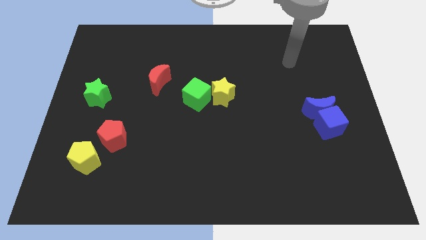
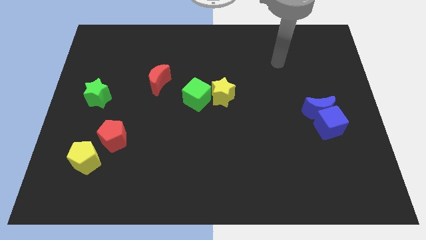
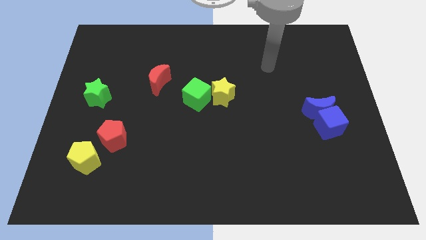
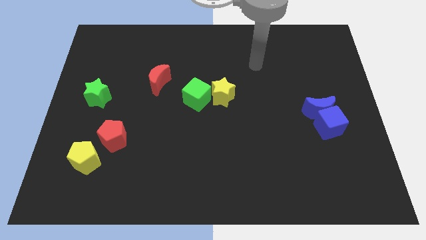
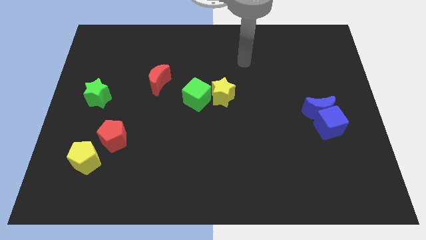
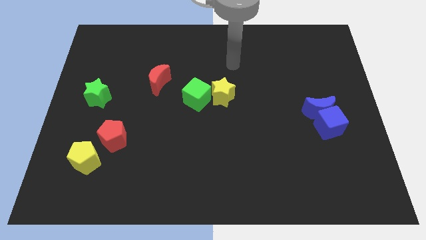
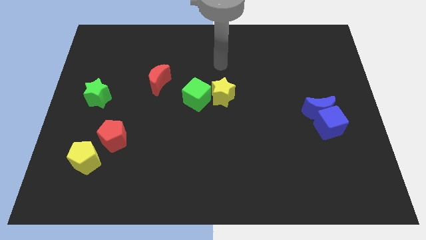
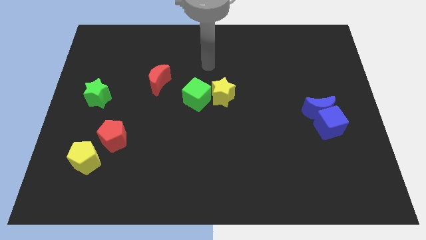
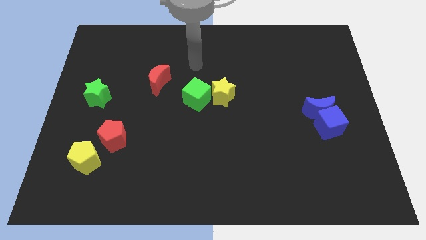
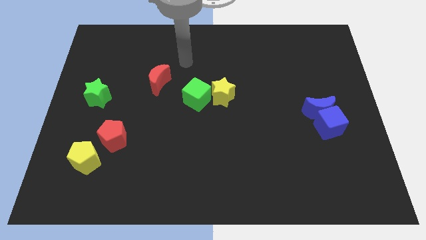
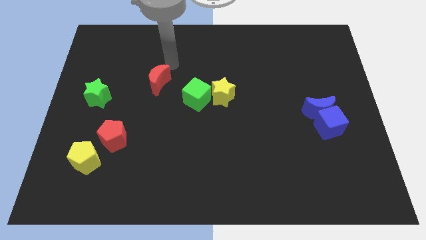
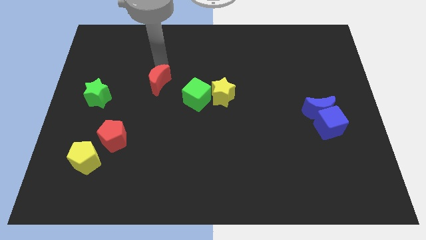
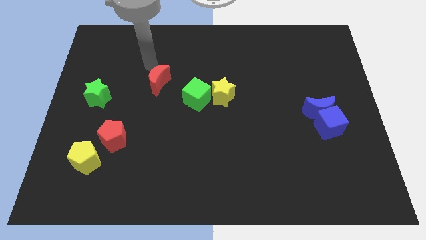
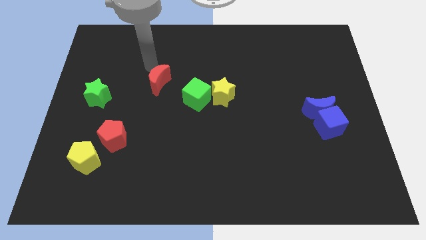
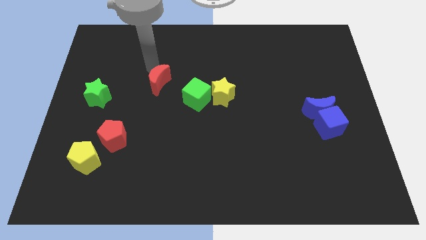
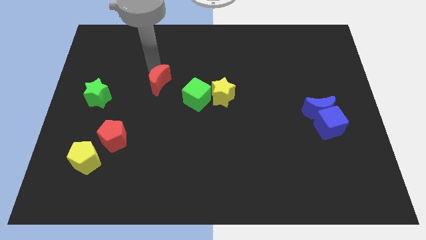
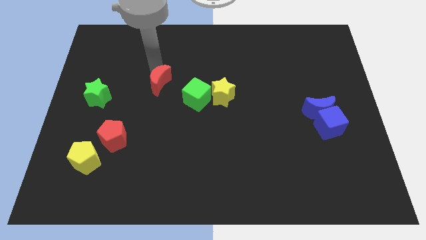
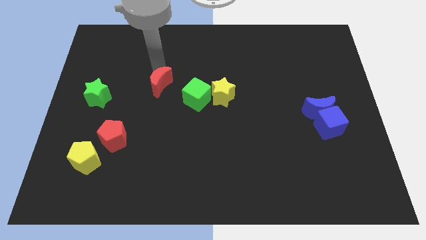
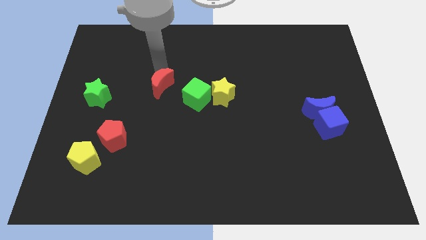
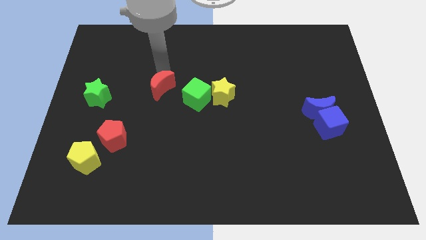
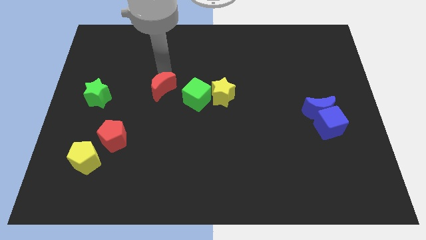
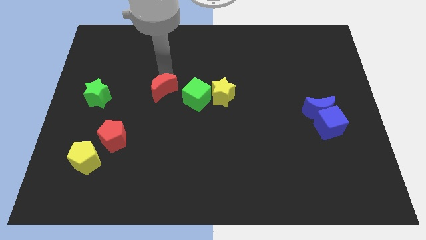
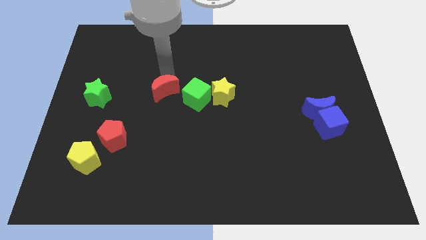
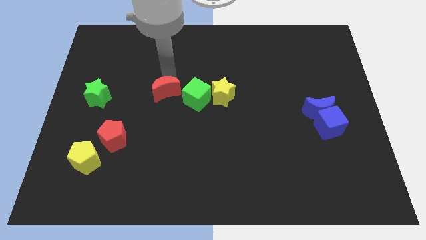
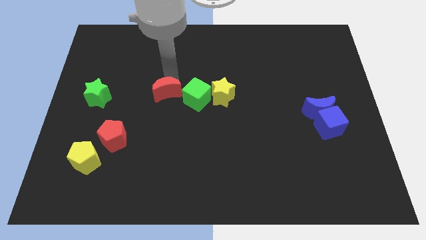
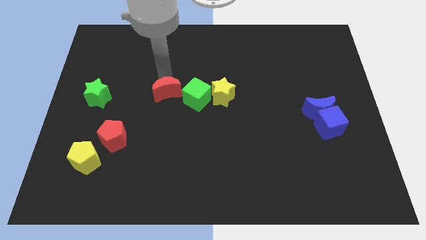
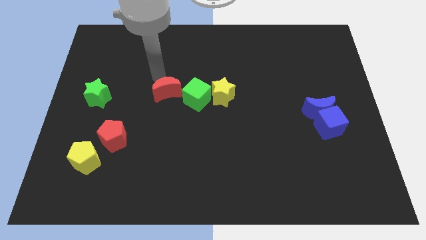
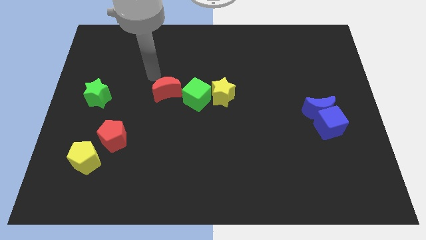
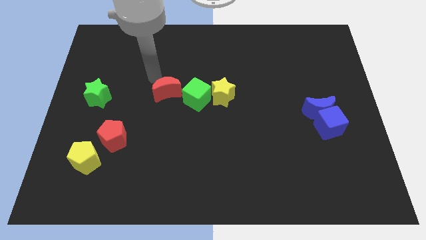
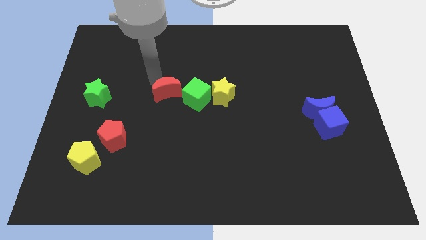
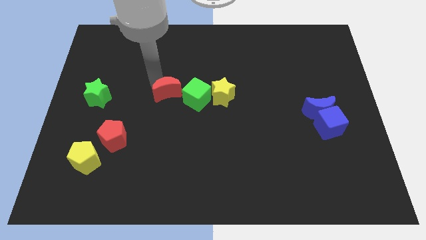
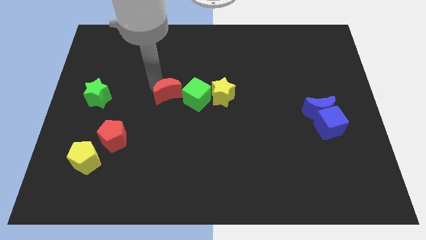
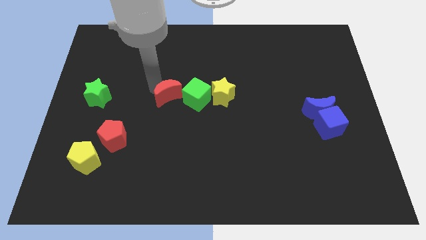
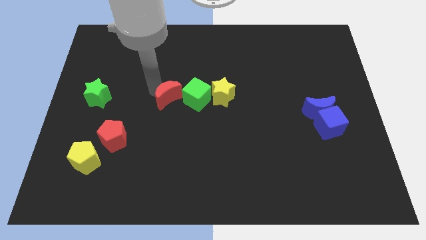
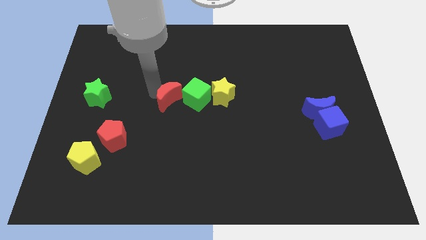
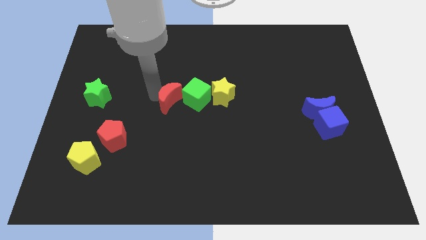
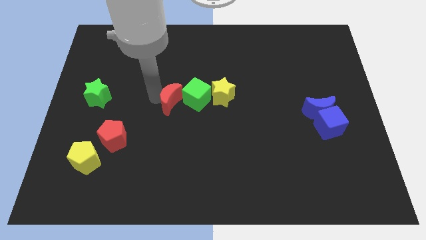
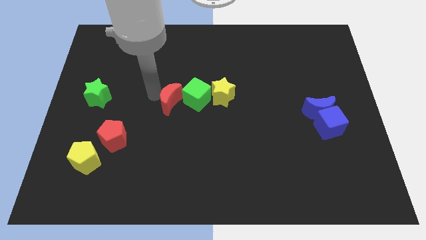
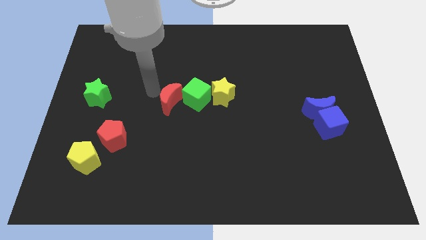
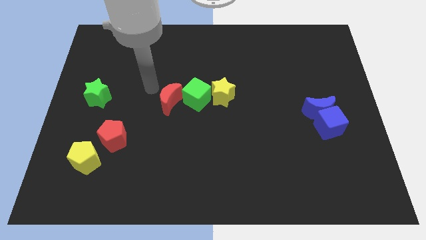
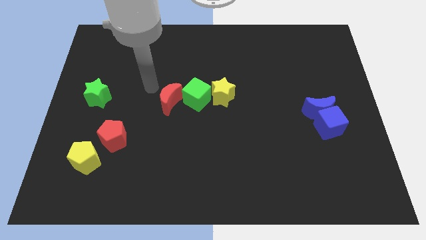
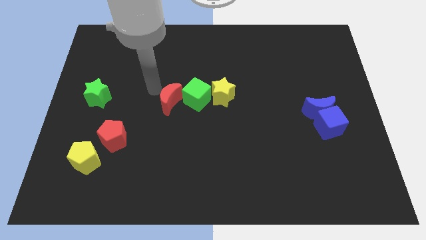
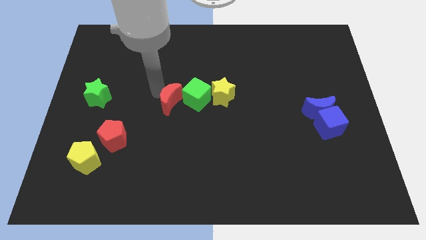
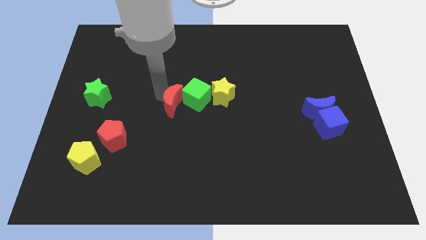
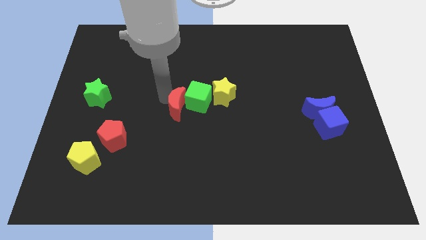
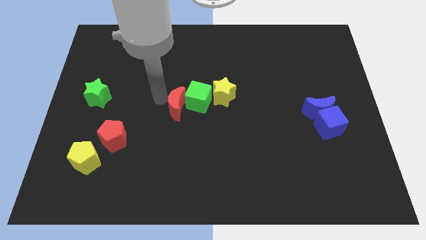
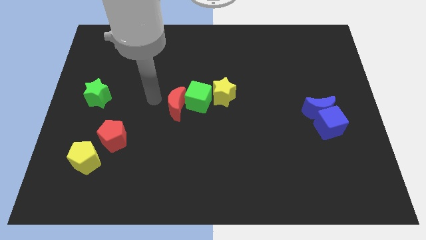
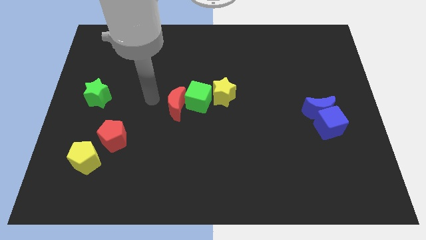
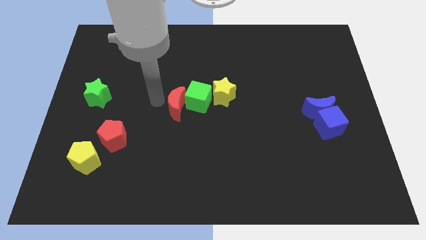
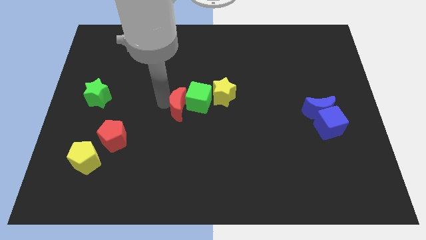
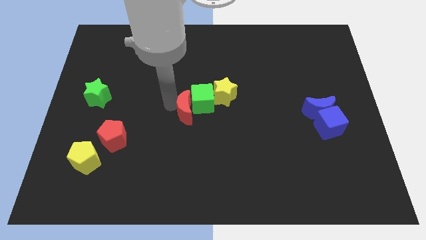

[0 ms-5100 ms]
push the red moon to the bottom left of the yellow star

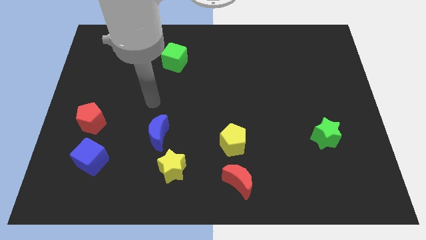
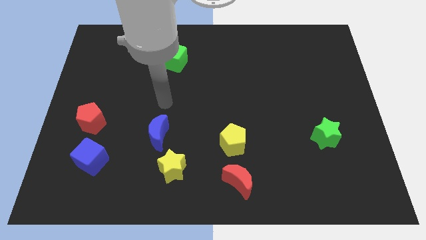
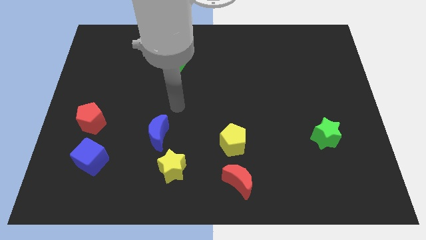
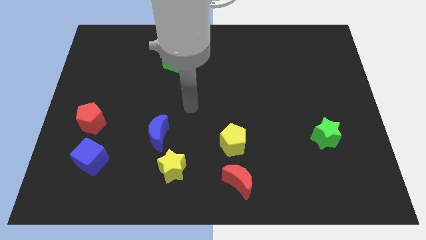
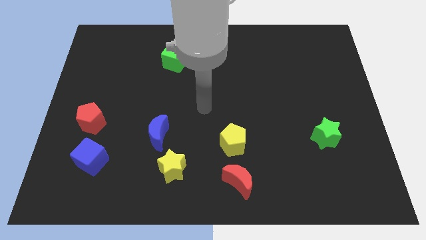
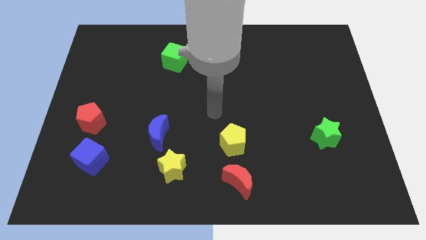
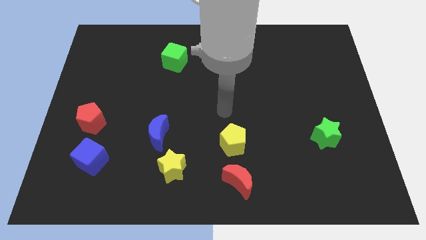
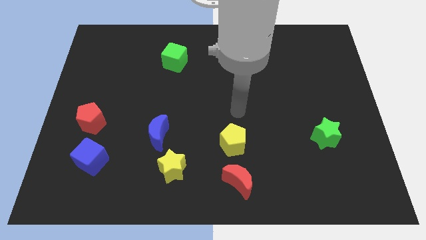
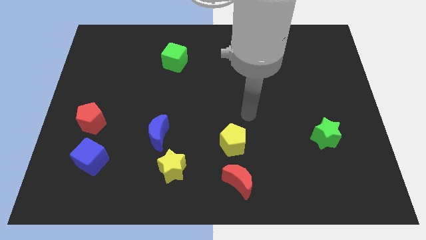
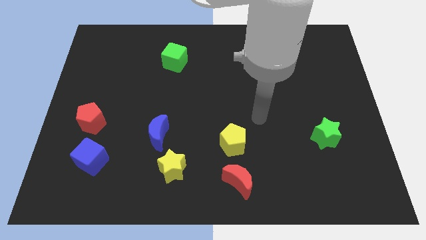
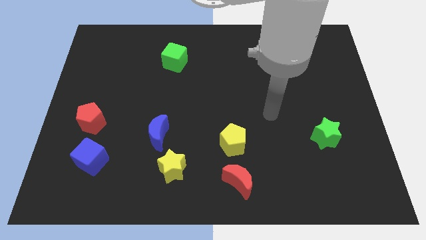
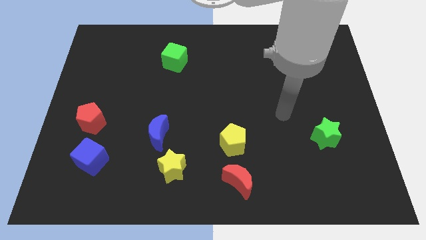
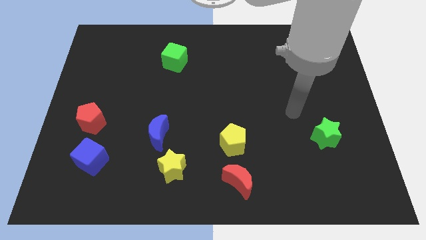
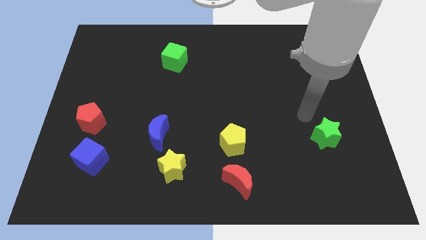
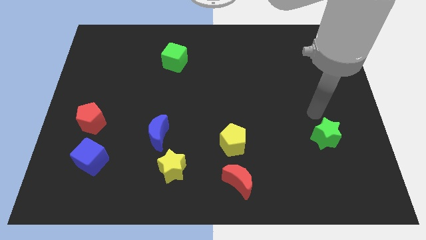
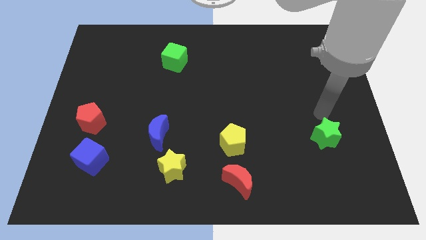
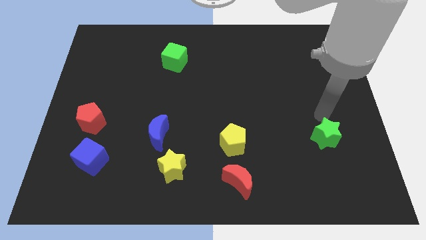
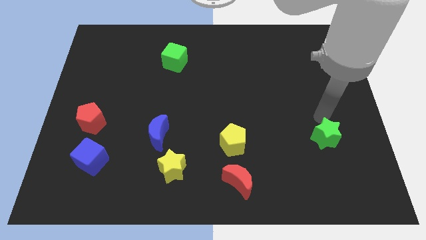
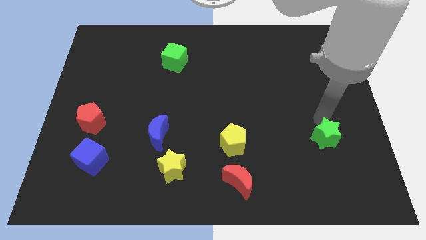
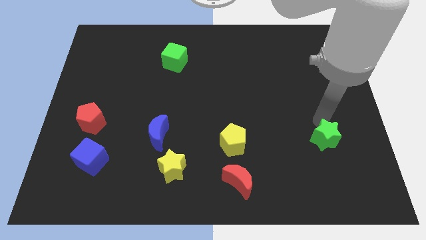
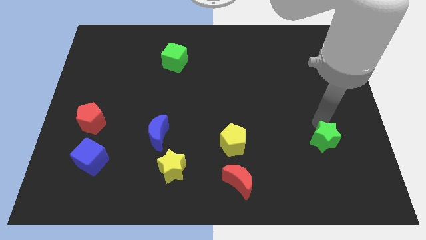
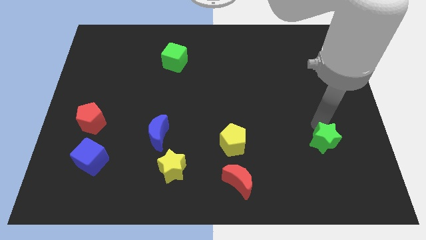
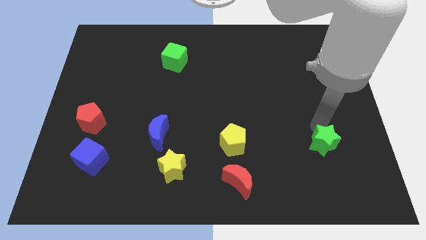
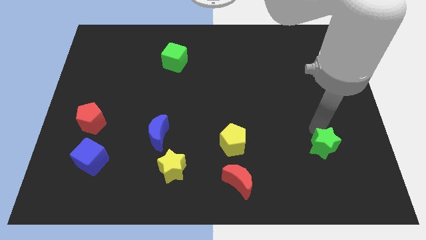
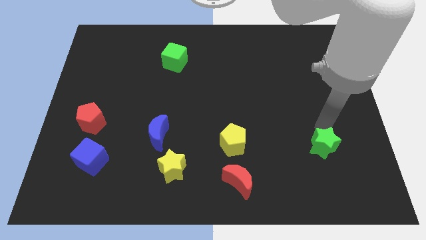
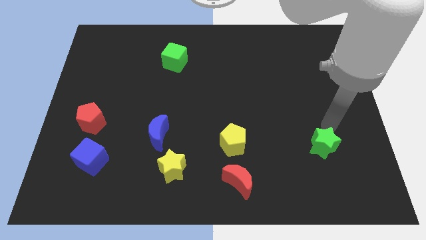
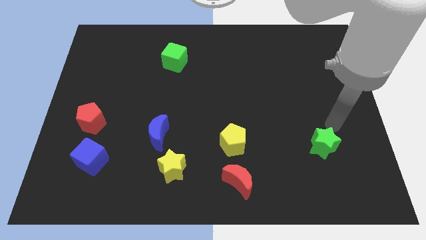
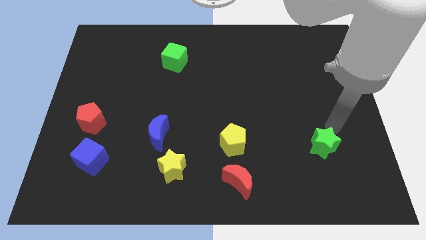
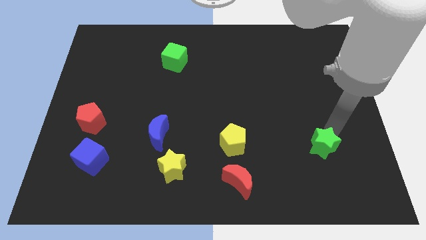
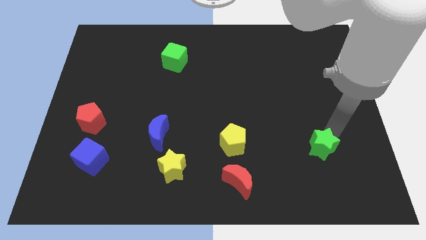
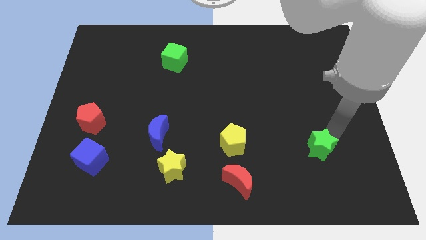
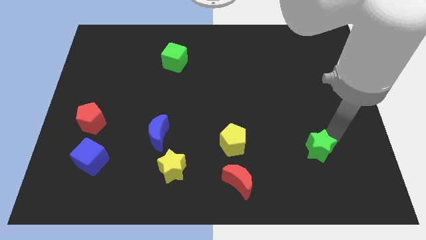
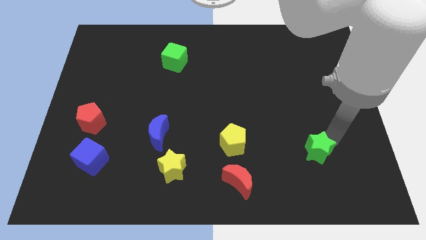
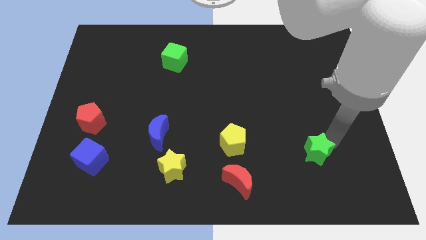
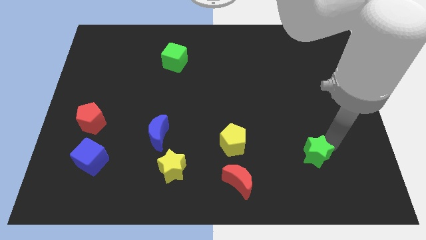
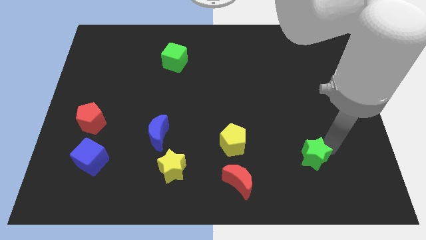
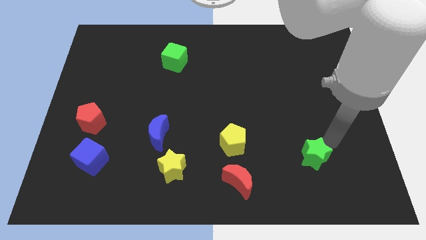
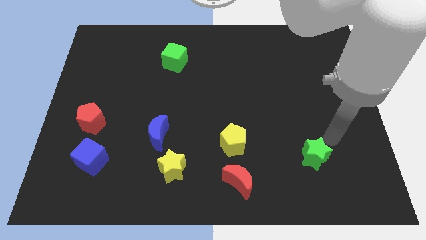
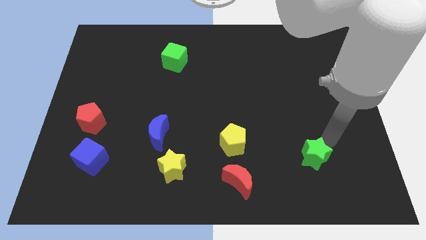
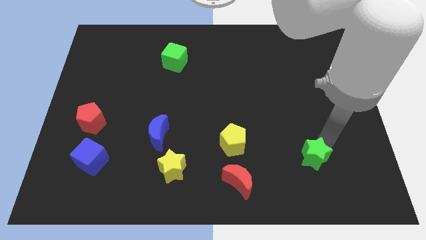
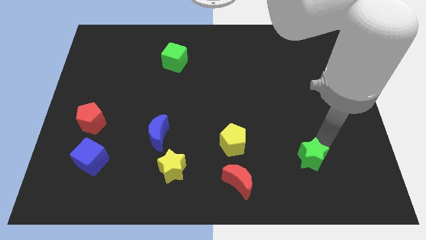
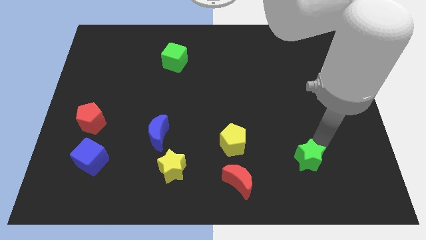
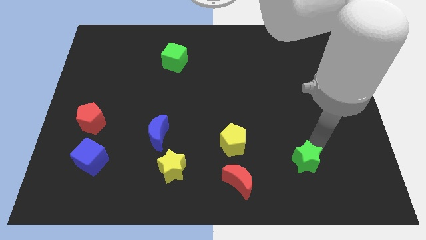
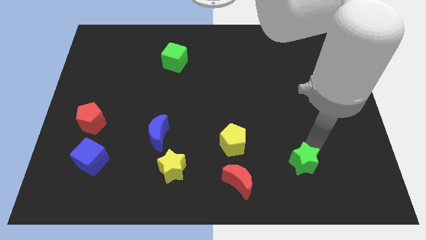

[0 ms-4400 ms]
slide the green star just right of the red moon
